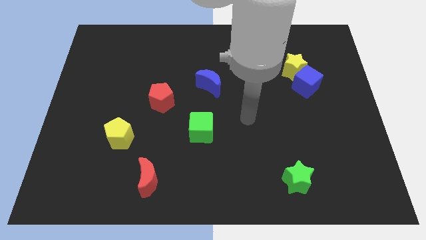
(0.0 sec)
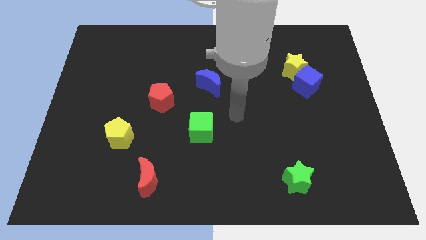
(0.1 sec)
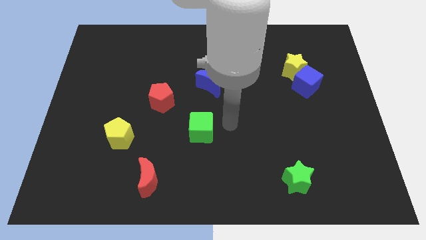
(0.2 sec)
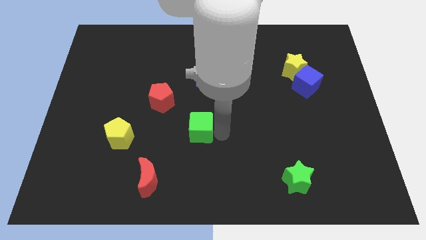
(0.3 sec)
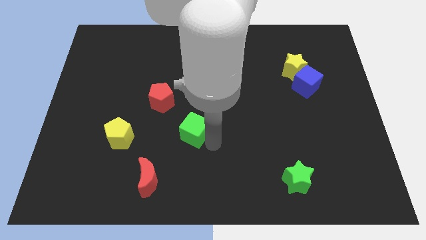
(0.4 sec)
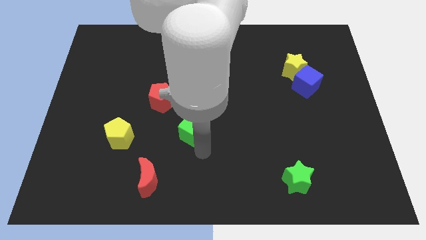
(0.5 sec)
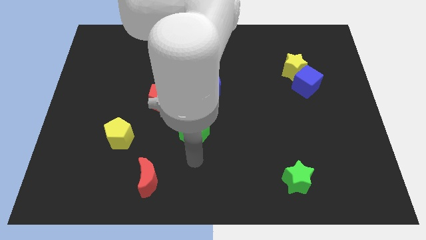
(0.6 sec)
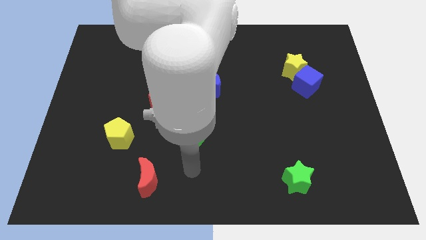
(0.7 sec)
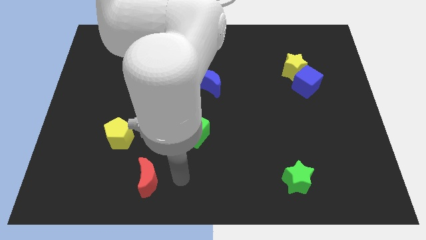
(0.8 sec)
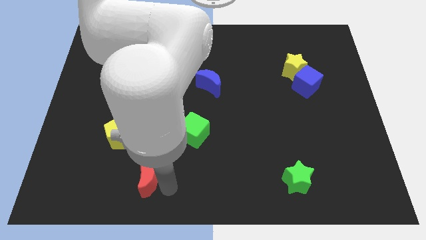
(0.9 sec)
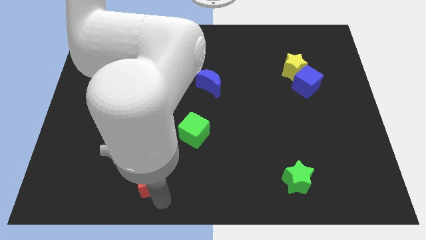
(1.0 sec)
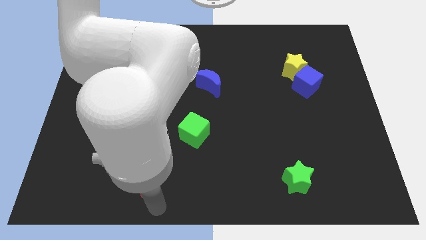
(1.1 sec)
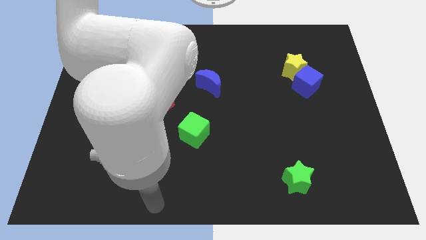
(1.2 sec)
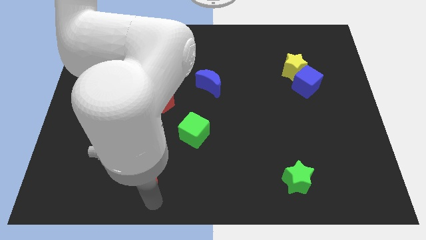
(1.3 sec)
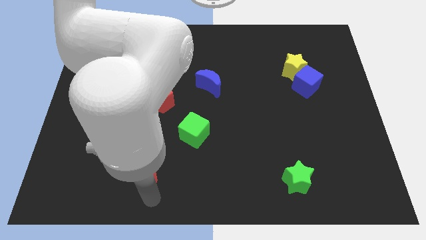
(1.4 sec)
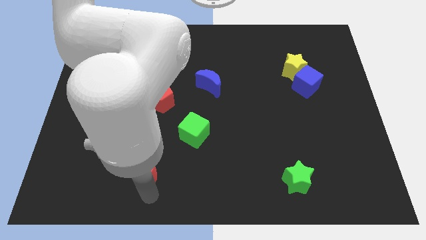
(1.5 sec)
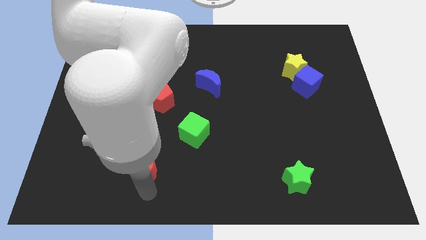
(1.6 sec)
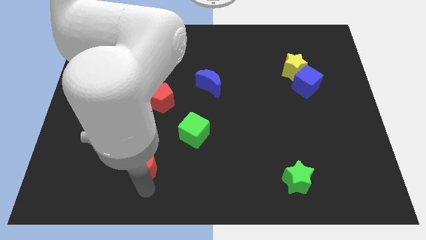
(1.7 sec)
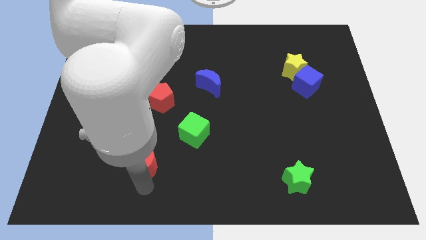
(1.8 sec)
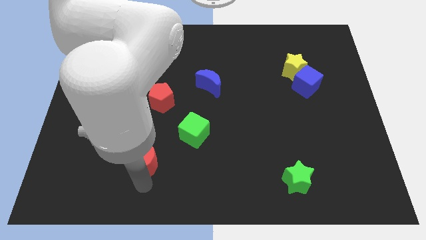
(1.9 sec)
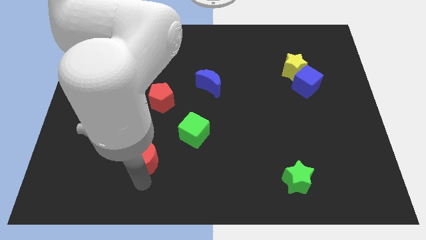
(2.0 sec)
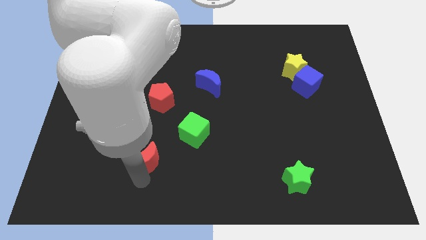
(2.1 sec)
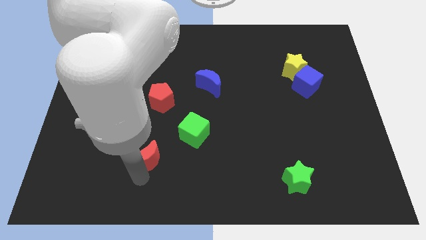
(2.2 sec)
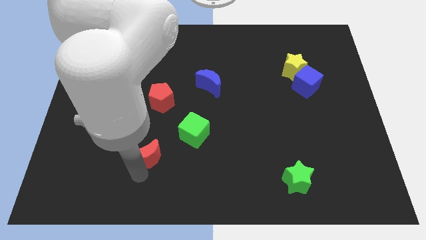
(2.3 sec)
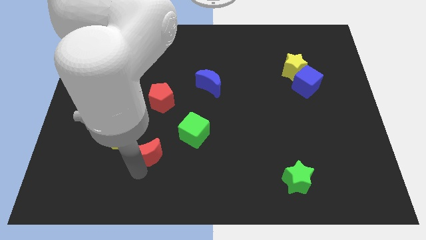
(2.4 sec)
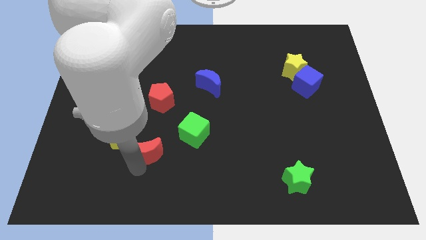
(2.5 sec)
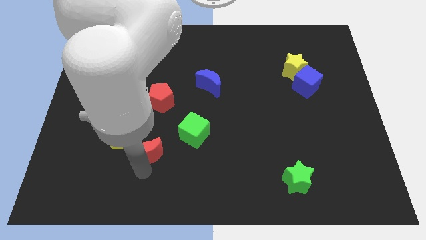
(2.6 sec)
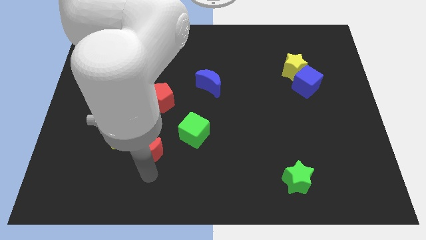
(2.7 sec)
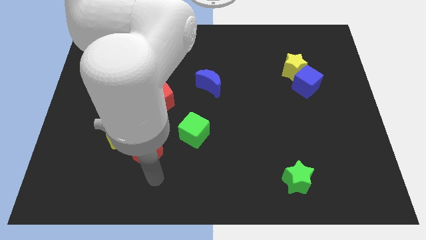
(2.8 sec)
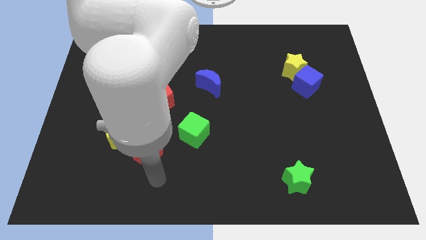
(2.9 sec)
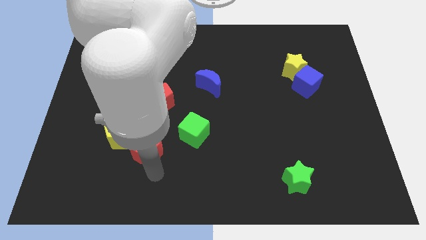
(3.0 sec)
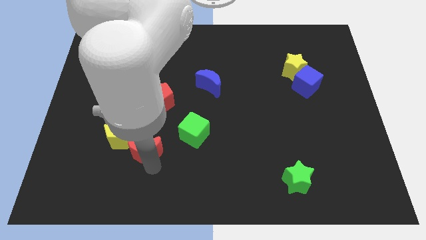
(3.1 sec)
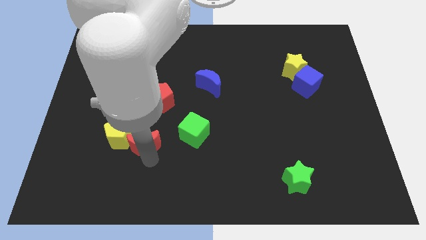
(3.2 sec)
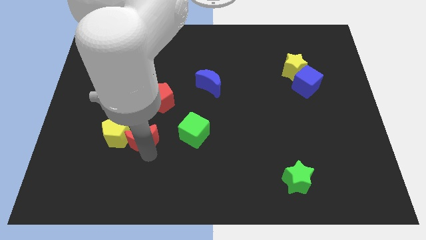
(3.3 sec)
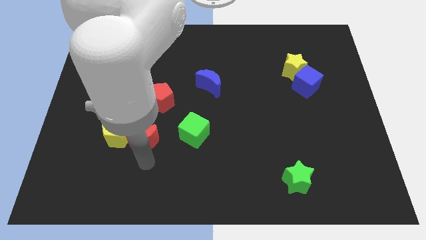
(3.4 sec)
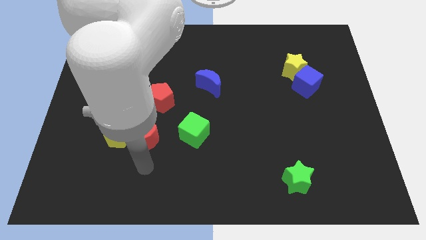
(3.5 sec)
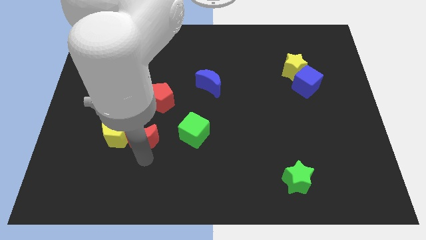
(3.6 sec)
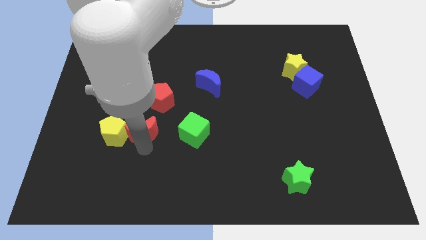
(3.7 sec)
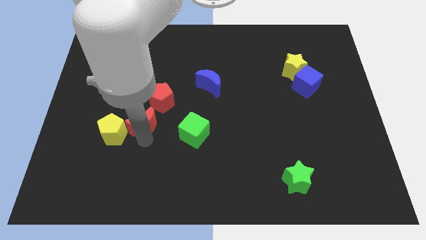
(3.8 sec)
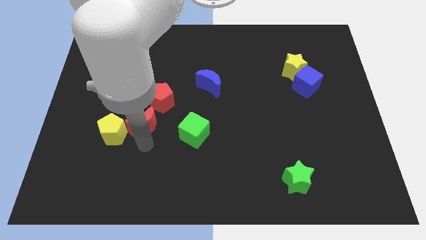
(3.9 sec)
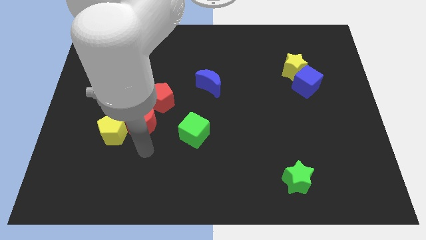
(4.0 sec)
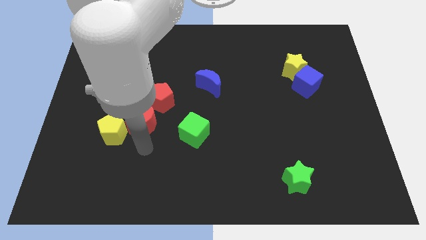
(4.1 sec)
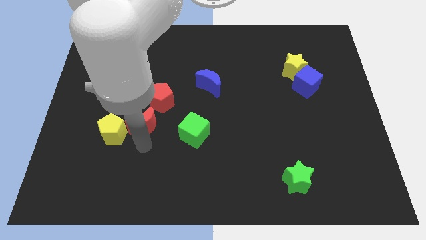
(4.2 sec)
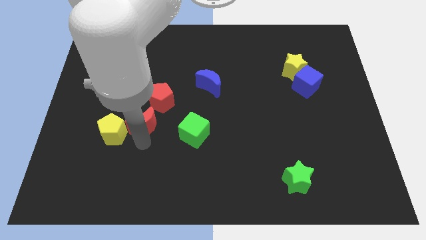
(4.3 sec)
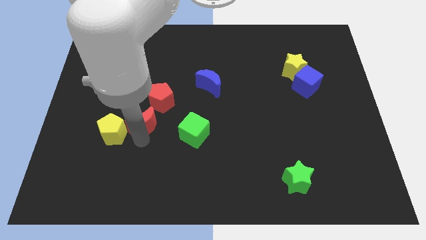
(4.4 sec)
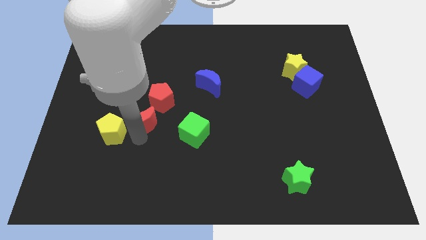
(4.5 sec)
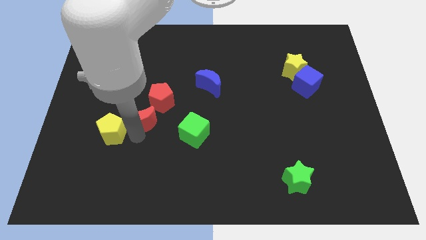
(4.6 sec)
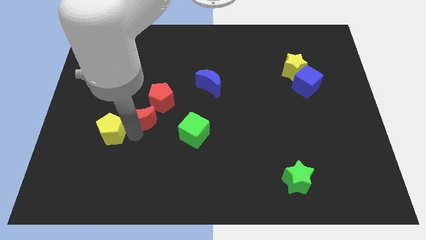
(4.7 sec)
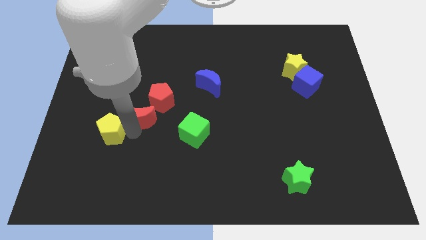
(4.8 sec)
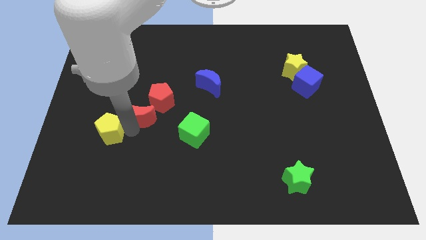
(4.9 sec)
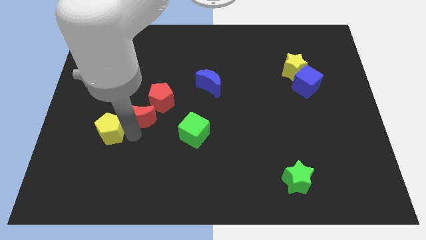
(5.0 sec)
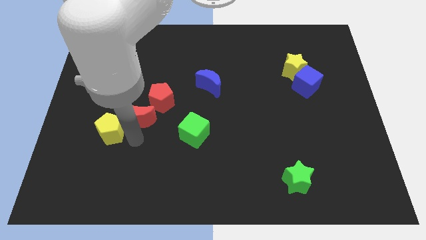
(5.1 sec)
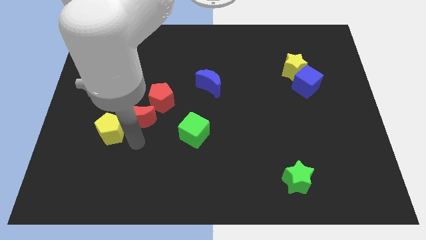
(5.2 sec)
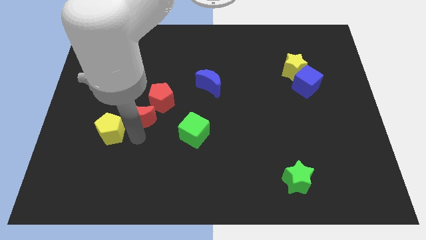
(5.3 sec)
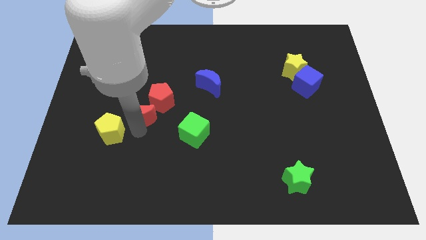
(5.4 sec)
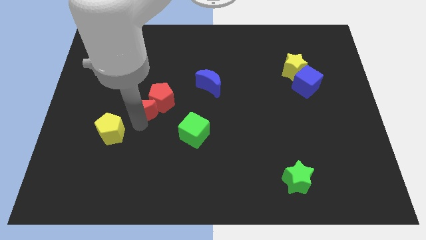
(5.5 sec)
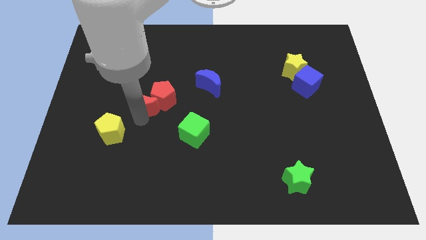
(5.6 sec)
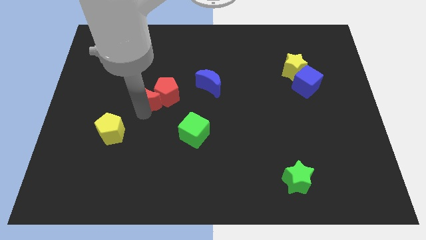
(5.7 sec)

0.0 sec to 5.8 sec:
move the red moon diagonally up and to the left of the red pentagon

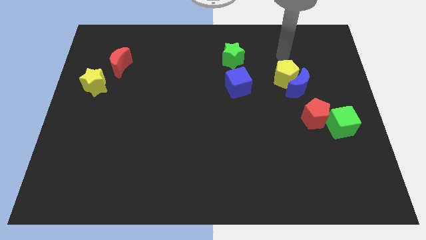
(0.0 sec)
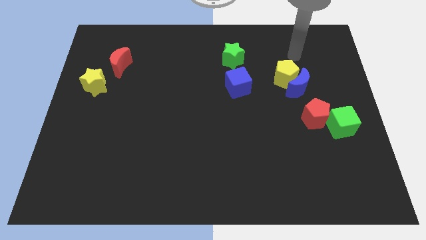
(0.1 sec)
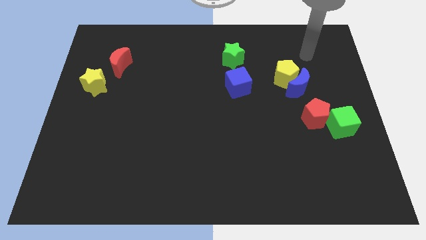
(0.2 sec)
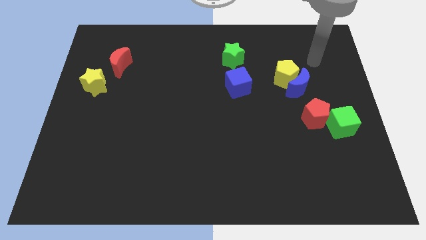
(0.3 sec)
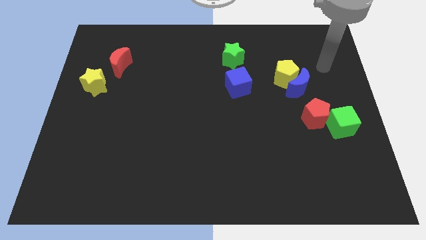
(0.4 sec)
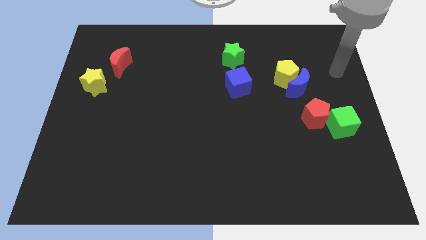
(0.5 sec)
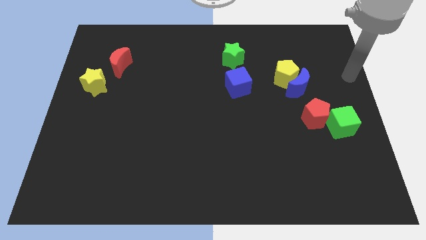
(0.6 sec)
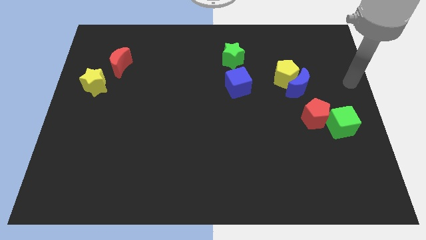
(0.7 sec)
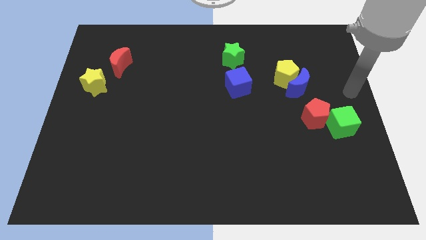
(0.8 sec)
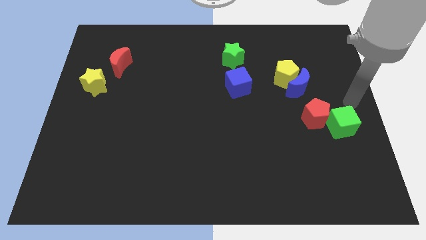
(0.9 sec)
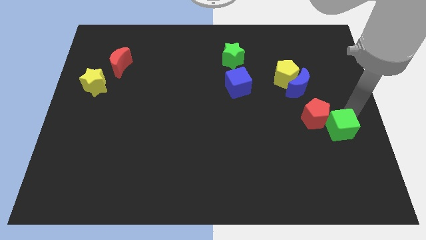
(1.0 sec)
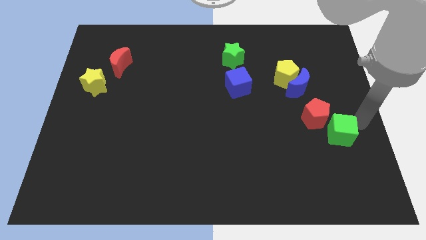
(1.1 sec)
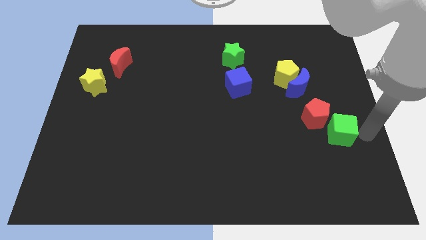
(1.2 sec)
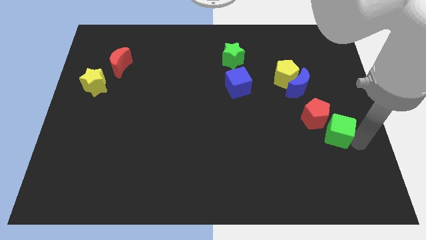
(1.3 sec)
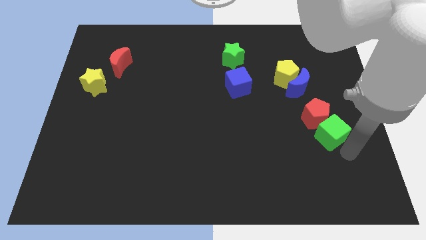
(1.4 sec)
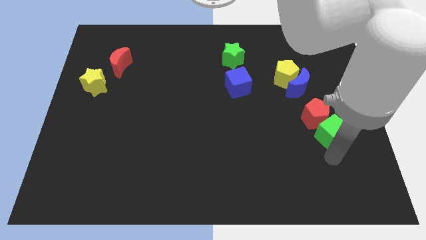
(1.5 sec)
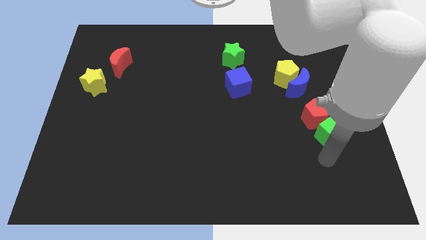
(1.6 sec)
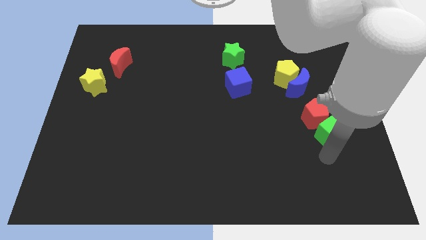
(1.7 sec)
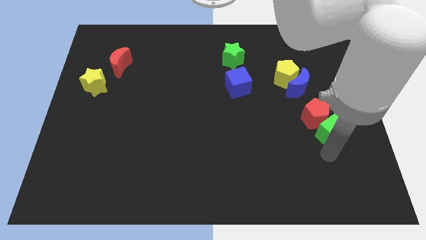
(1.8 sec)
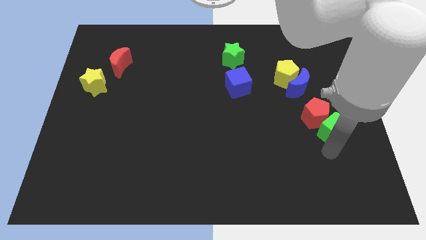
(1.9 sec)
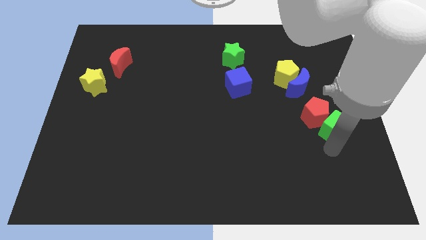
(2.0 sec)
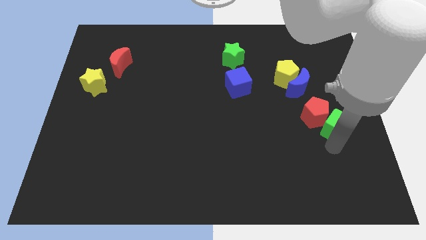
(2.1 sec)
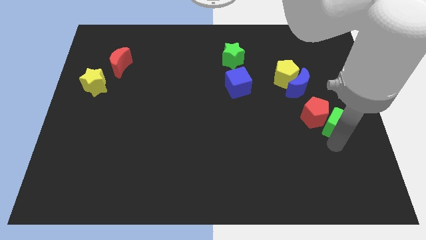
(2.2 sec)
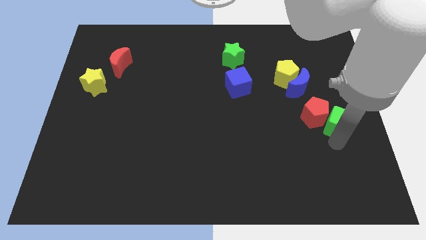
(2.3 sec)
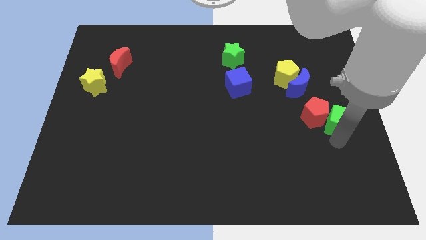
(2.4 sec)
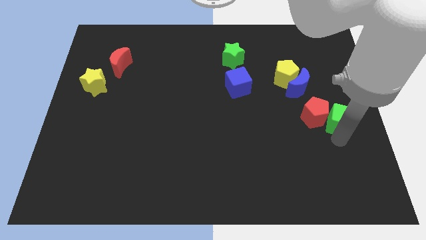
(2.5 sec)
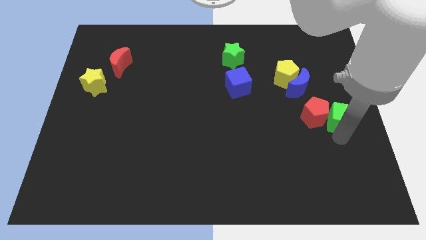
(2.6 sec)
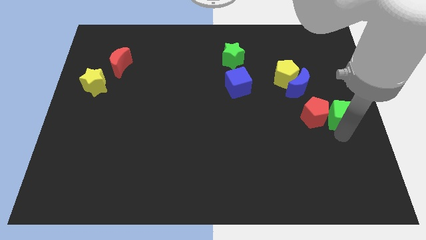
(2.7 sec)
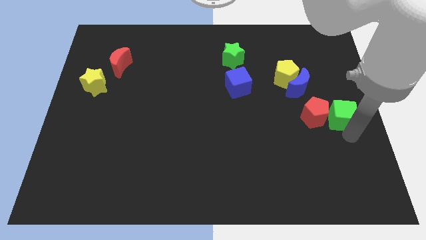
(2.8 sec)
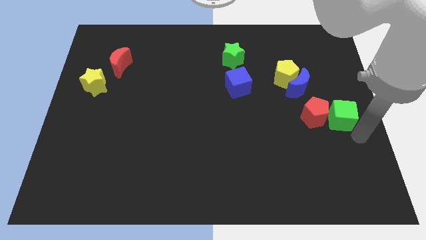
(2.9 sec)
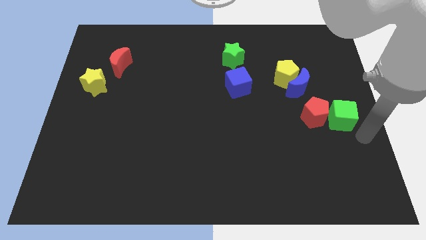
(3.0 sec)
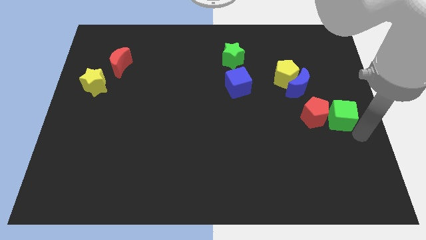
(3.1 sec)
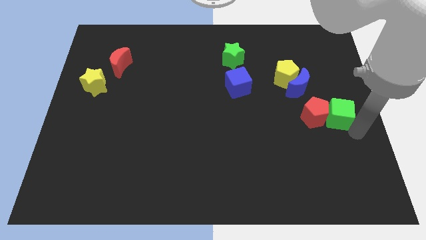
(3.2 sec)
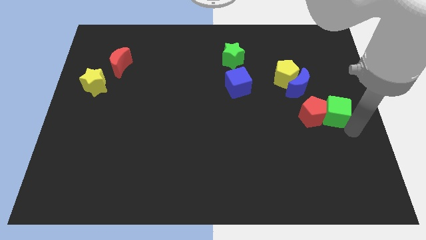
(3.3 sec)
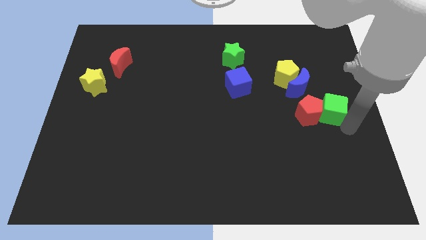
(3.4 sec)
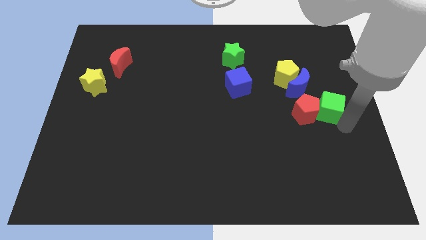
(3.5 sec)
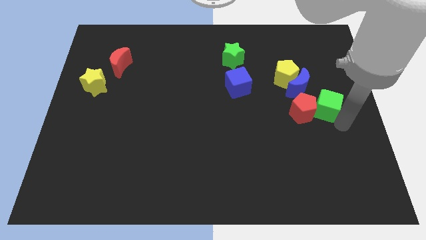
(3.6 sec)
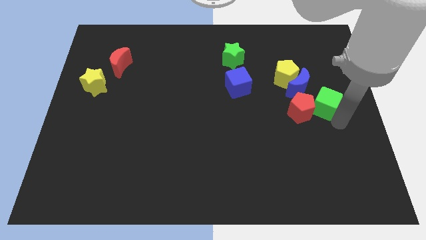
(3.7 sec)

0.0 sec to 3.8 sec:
push the green cube to the bottom right side of the yellow pentagon
